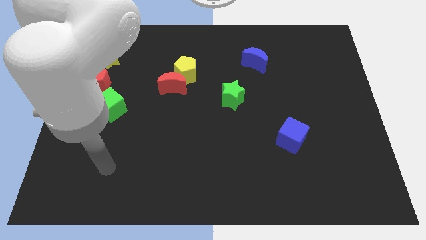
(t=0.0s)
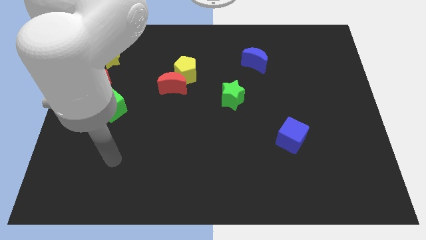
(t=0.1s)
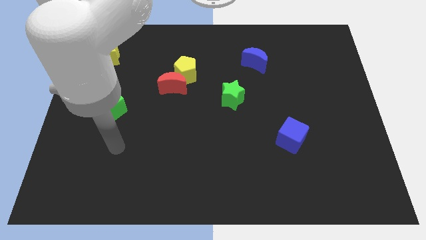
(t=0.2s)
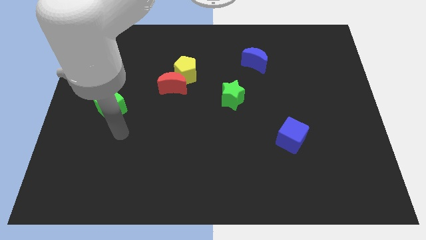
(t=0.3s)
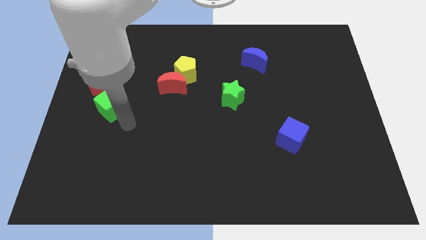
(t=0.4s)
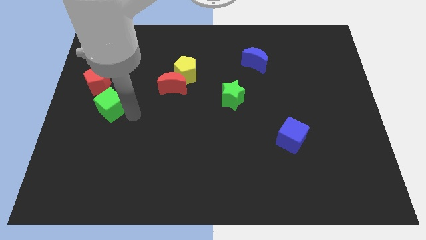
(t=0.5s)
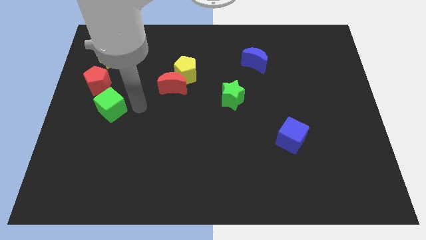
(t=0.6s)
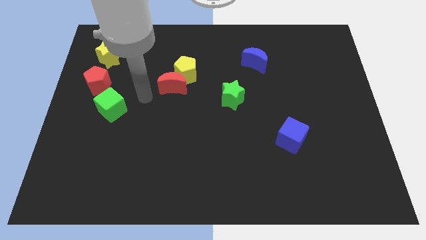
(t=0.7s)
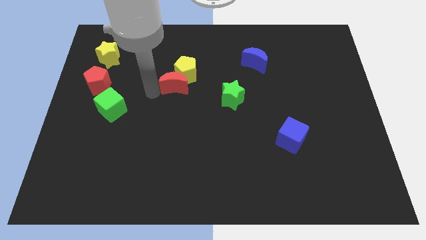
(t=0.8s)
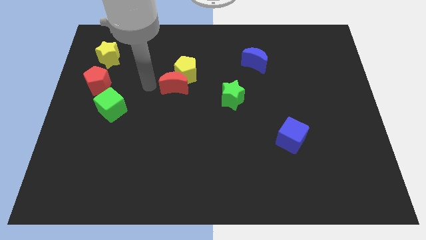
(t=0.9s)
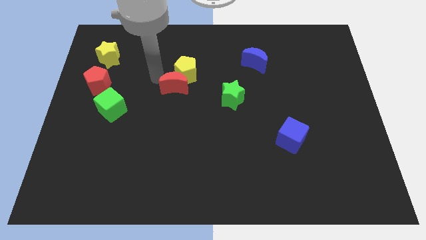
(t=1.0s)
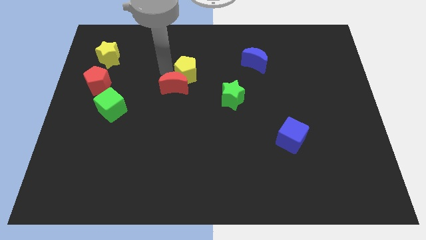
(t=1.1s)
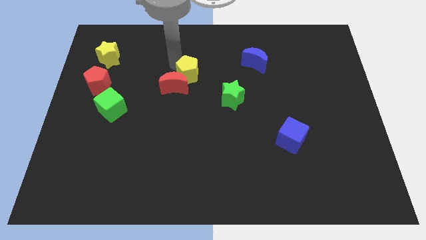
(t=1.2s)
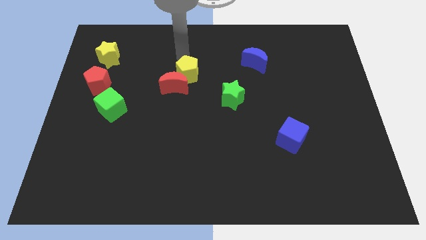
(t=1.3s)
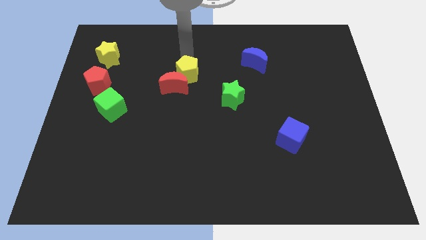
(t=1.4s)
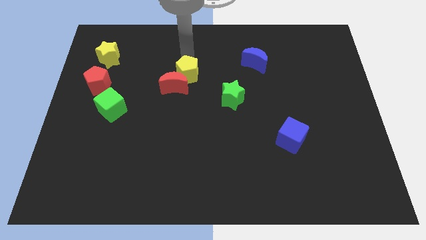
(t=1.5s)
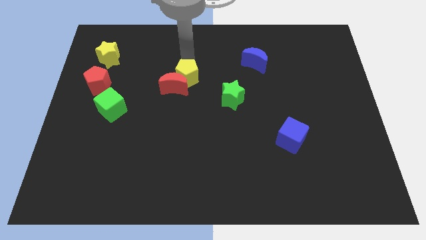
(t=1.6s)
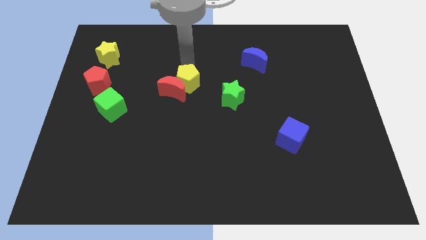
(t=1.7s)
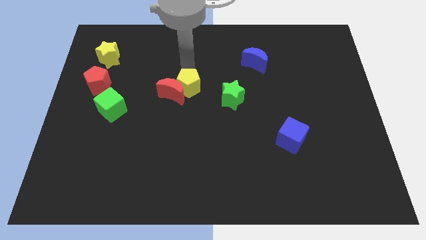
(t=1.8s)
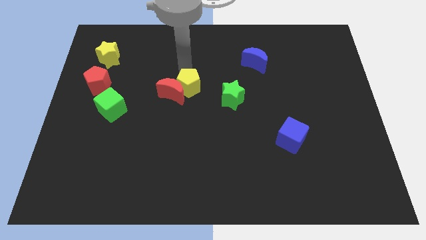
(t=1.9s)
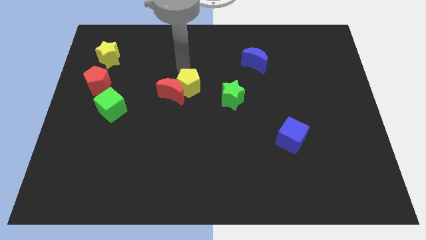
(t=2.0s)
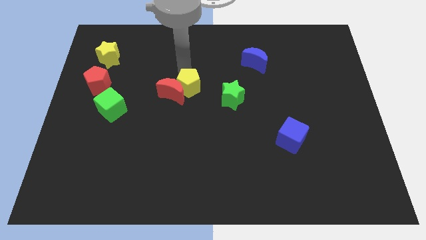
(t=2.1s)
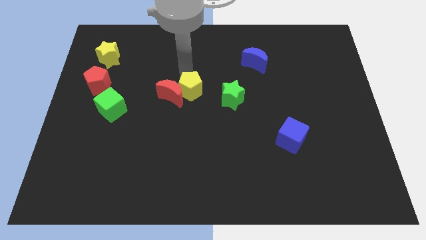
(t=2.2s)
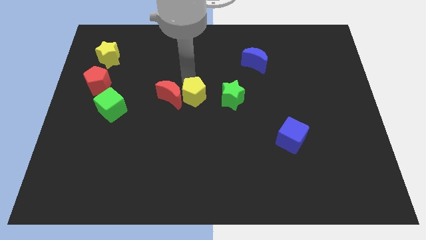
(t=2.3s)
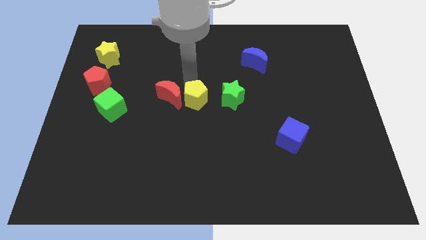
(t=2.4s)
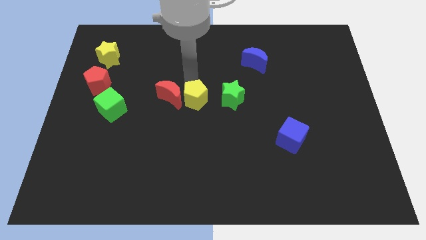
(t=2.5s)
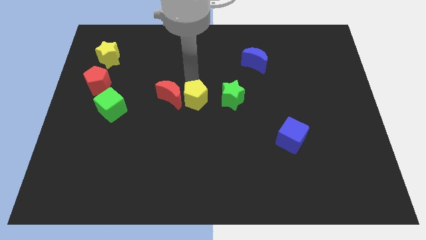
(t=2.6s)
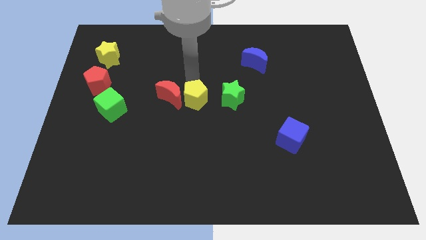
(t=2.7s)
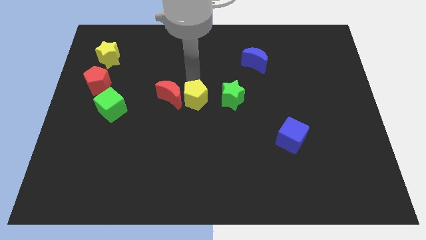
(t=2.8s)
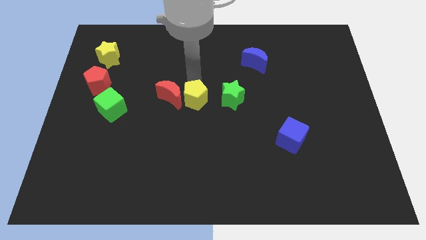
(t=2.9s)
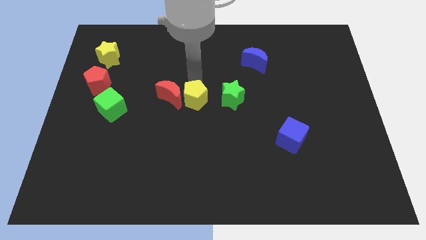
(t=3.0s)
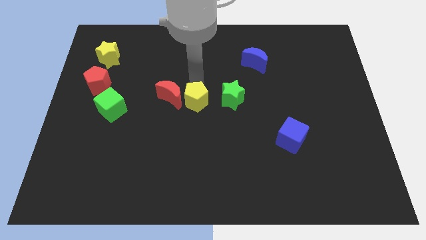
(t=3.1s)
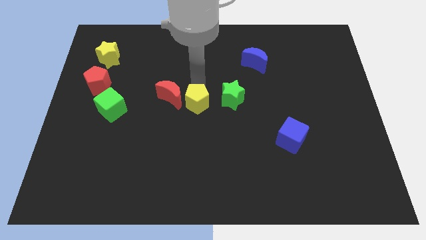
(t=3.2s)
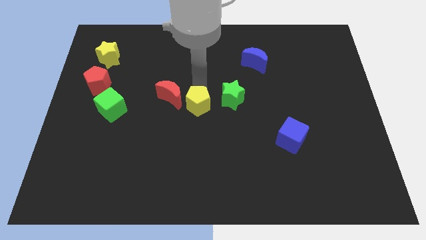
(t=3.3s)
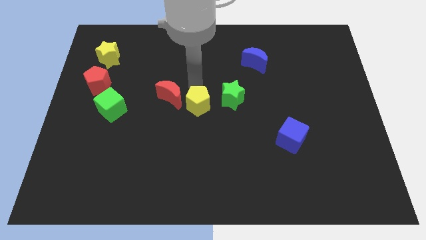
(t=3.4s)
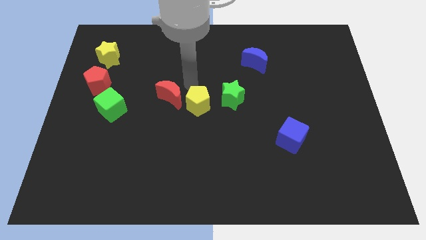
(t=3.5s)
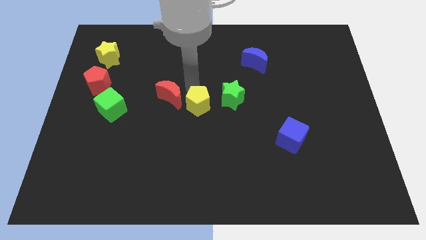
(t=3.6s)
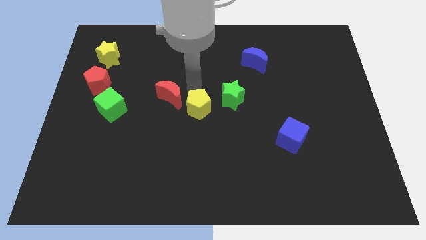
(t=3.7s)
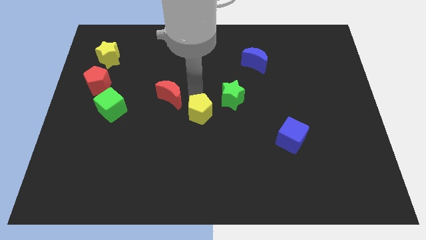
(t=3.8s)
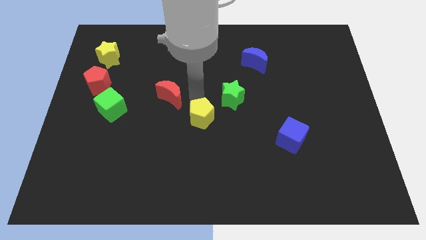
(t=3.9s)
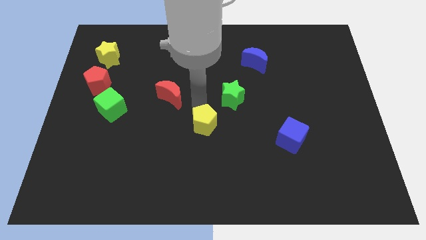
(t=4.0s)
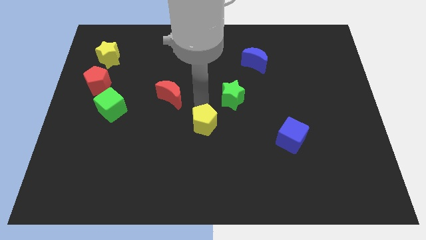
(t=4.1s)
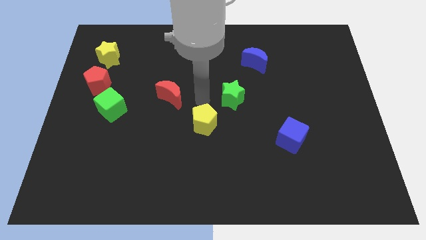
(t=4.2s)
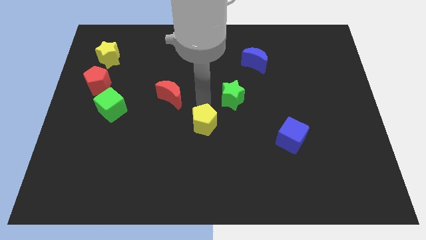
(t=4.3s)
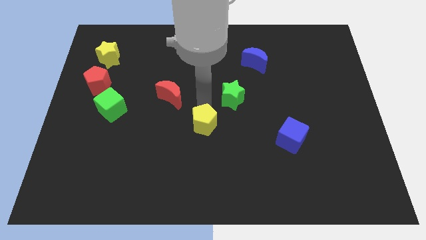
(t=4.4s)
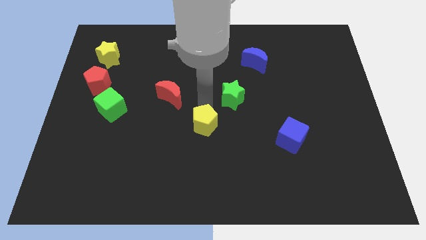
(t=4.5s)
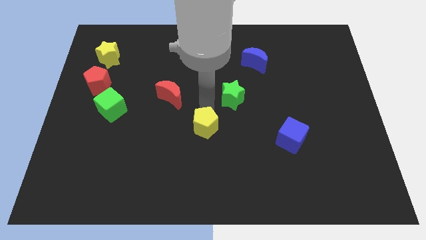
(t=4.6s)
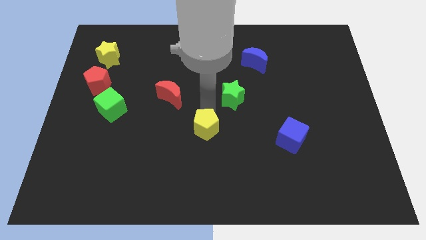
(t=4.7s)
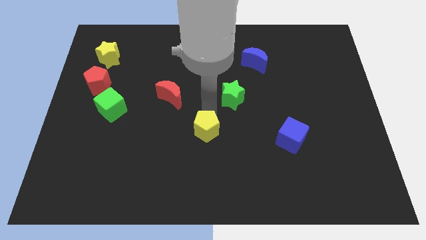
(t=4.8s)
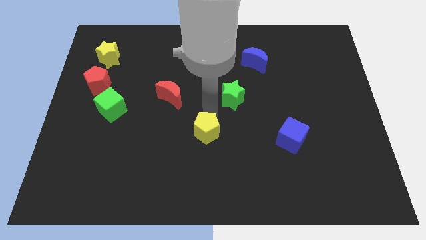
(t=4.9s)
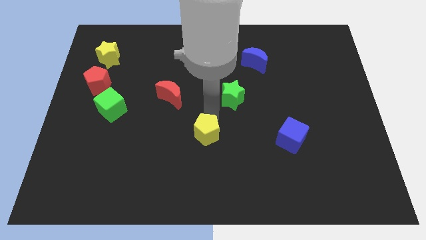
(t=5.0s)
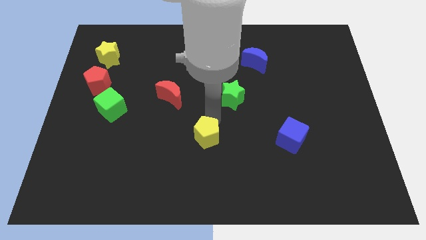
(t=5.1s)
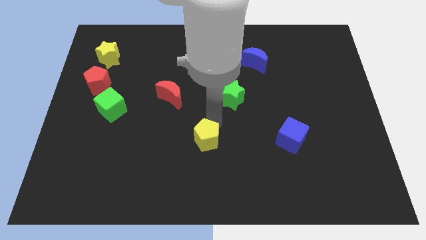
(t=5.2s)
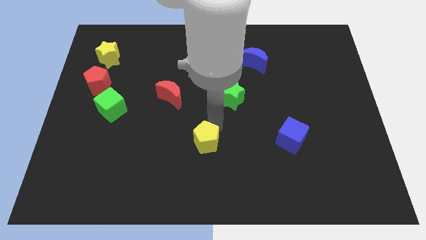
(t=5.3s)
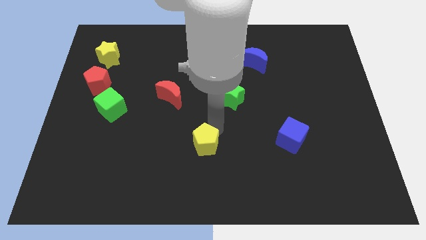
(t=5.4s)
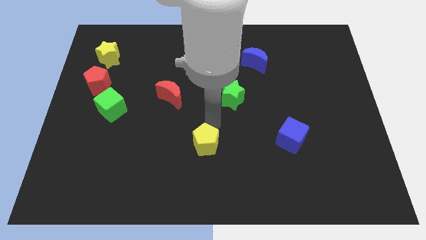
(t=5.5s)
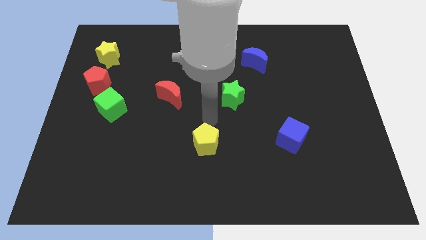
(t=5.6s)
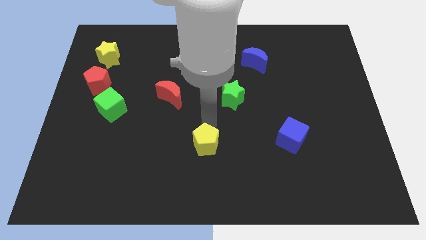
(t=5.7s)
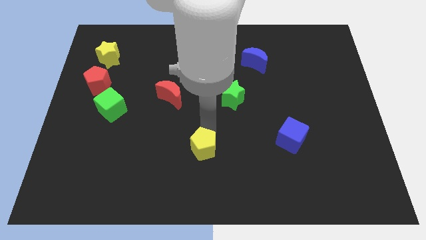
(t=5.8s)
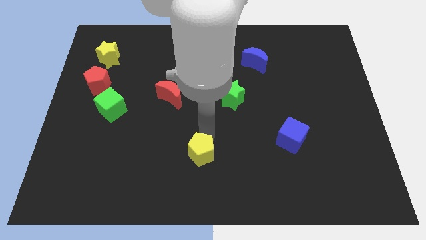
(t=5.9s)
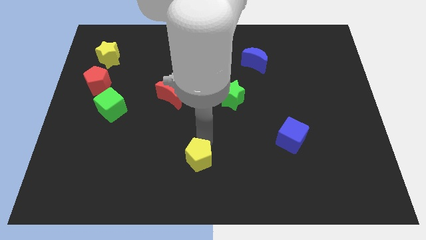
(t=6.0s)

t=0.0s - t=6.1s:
push the yellow pentagon to the bottom side

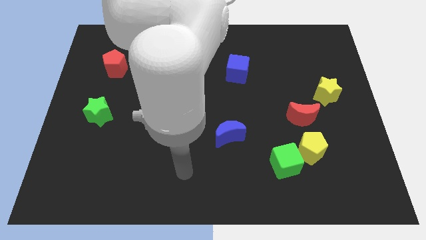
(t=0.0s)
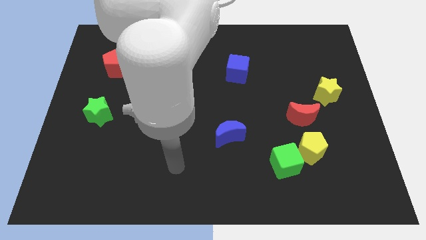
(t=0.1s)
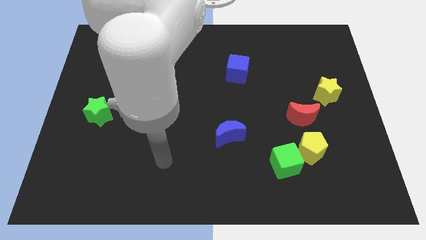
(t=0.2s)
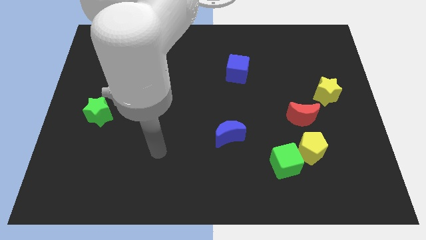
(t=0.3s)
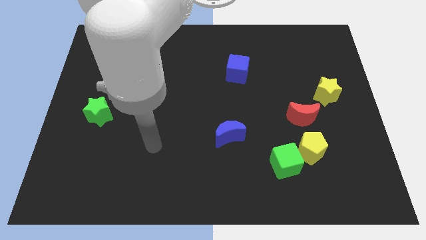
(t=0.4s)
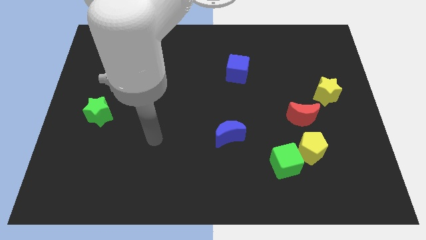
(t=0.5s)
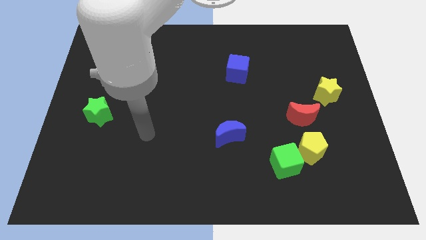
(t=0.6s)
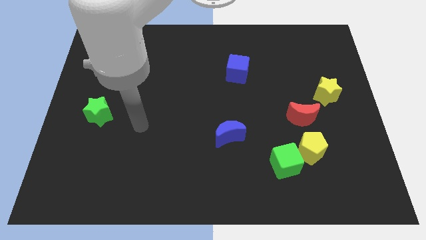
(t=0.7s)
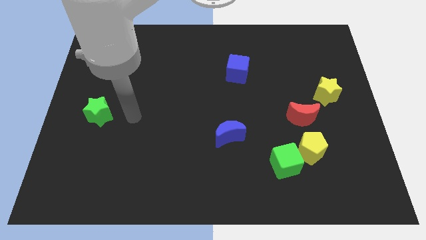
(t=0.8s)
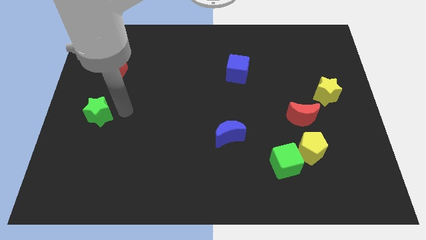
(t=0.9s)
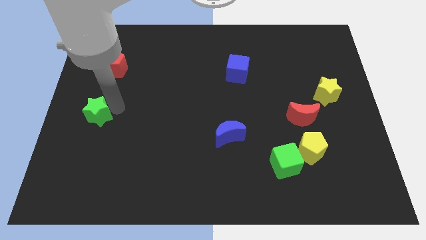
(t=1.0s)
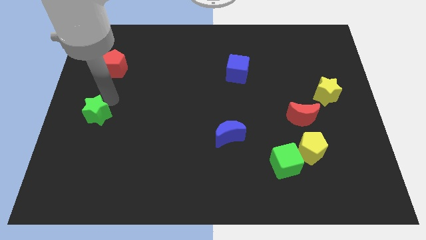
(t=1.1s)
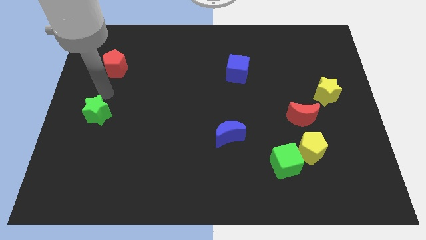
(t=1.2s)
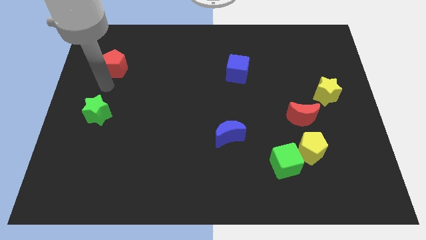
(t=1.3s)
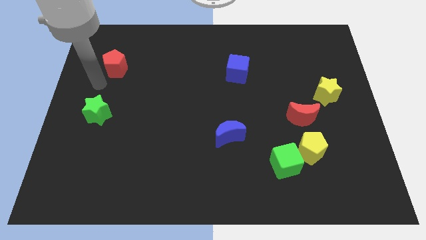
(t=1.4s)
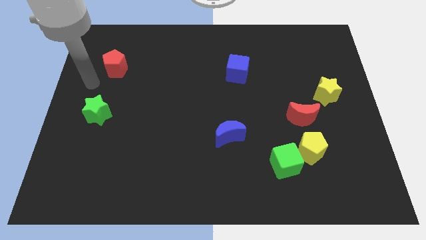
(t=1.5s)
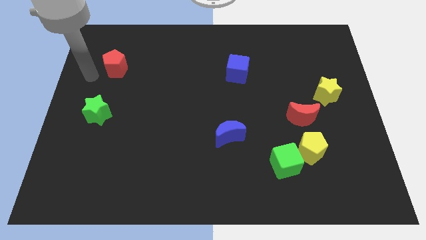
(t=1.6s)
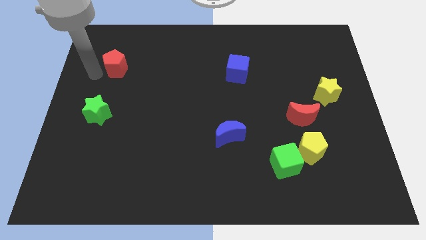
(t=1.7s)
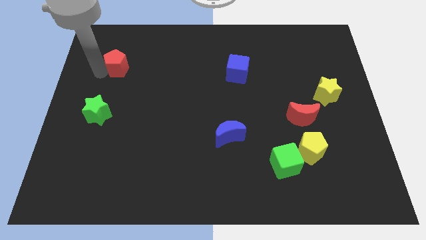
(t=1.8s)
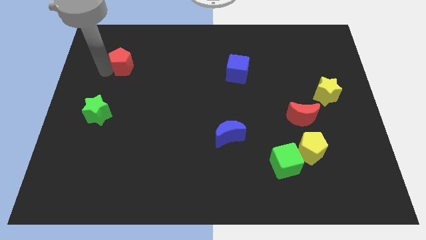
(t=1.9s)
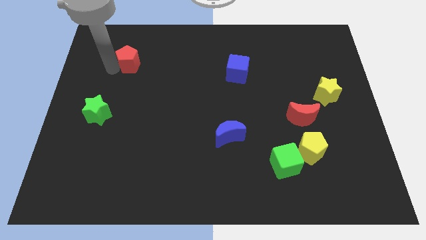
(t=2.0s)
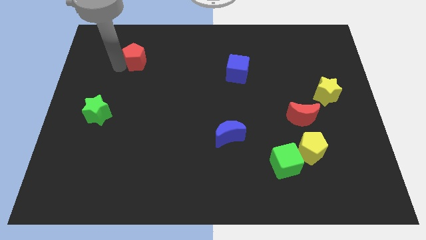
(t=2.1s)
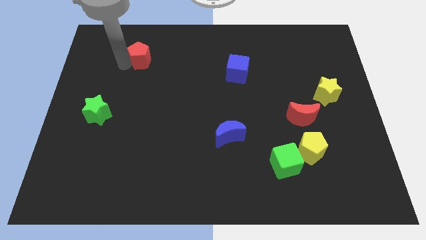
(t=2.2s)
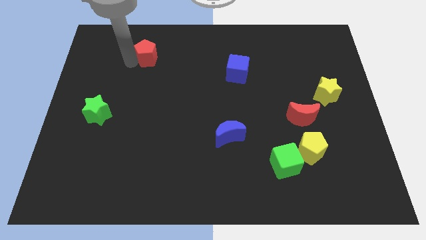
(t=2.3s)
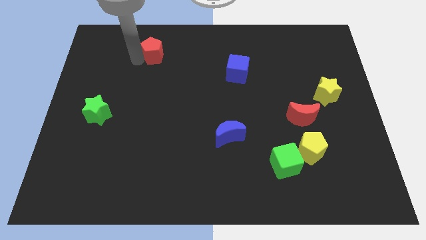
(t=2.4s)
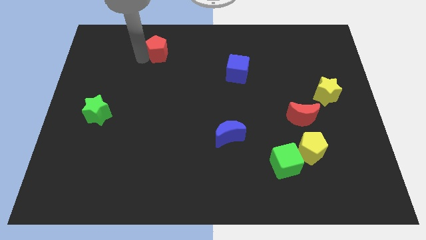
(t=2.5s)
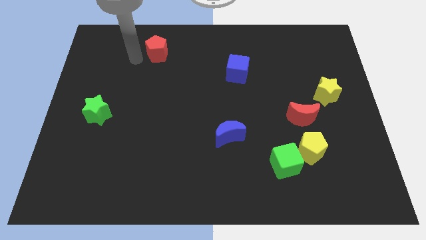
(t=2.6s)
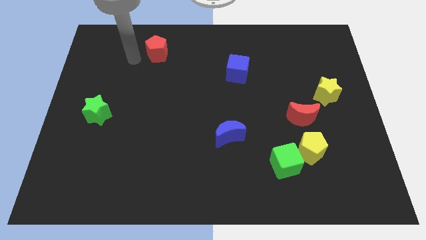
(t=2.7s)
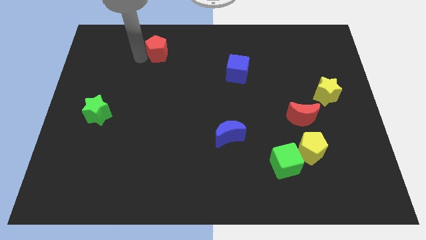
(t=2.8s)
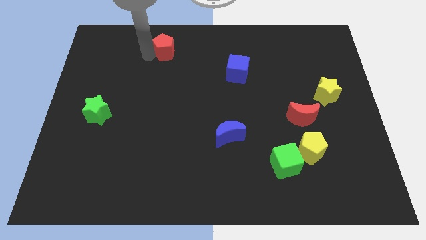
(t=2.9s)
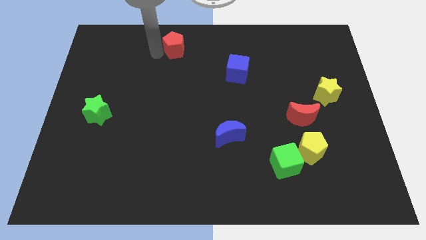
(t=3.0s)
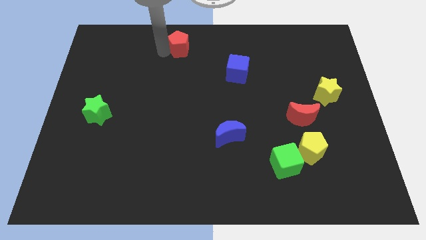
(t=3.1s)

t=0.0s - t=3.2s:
put the red pentagon to the towards your base
